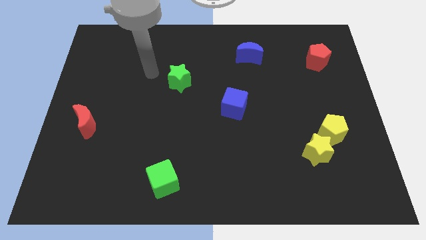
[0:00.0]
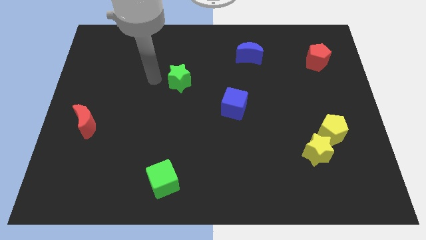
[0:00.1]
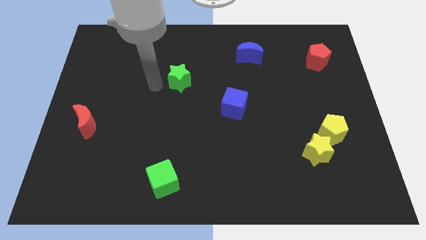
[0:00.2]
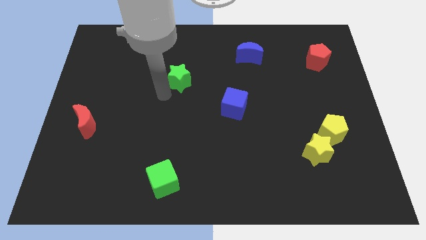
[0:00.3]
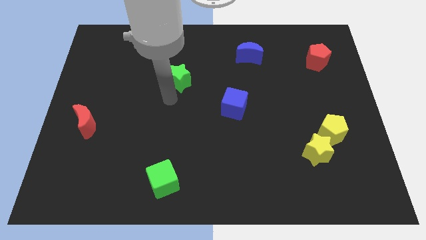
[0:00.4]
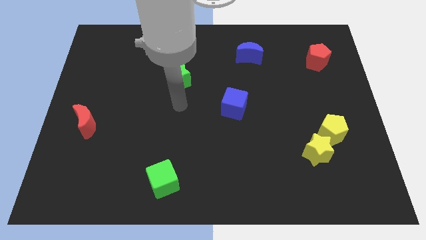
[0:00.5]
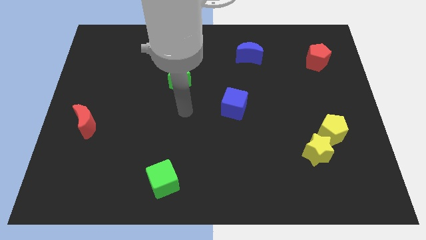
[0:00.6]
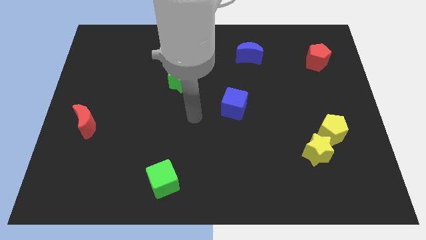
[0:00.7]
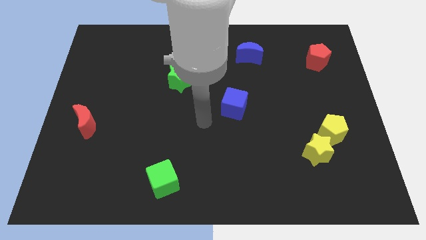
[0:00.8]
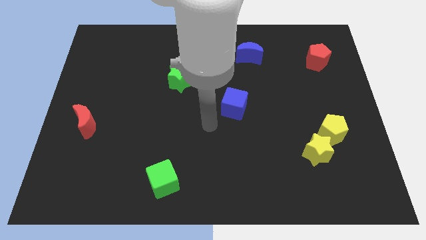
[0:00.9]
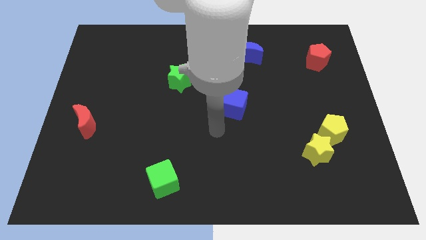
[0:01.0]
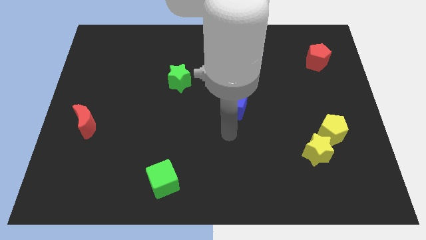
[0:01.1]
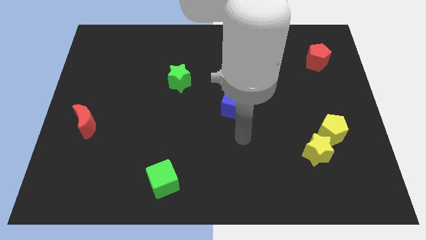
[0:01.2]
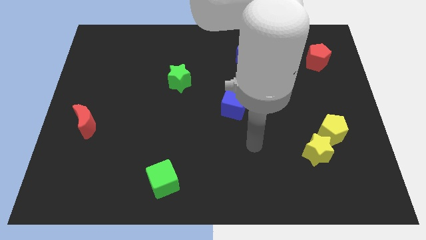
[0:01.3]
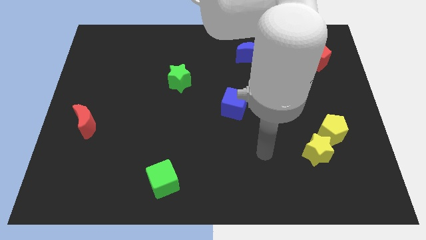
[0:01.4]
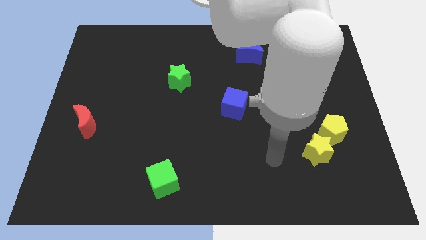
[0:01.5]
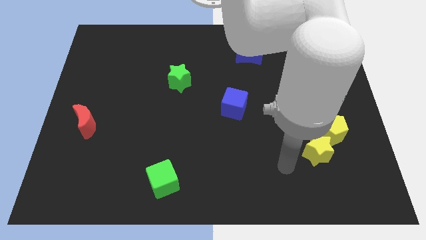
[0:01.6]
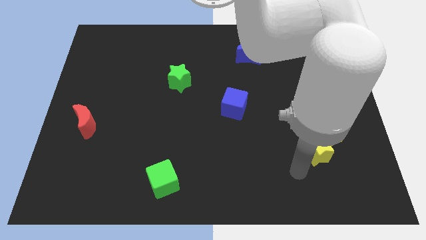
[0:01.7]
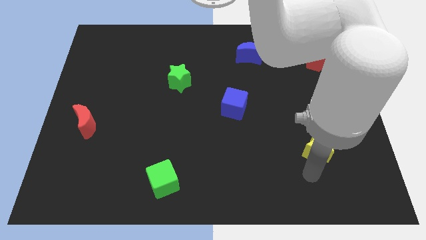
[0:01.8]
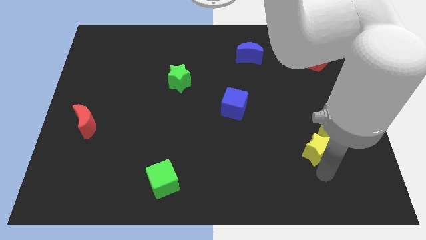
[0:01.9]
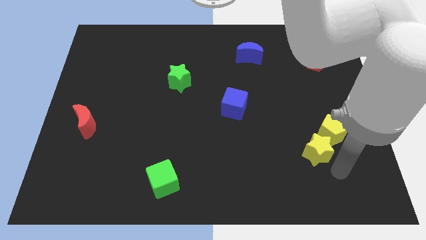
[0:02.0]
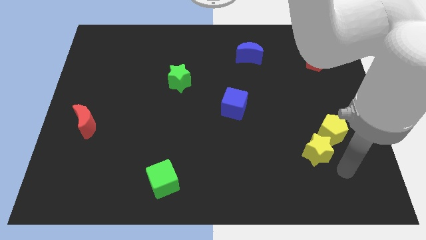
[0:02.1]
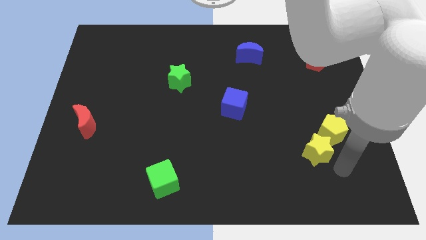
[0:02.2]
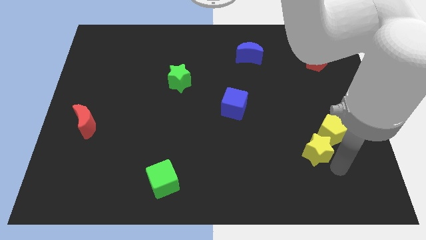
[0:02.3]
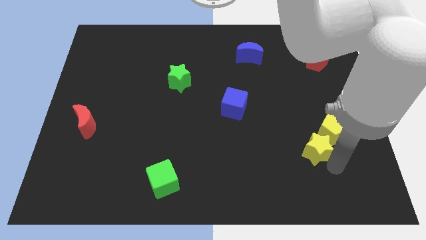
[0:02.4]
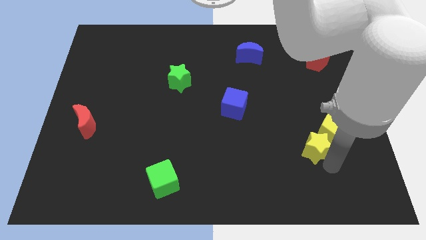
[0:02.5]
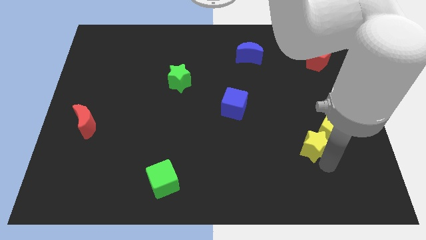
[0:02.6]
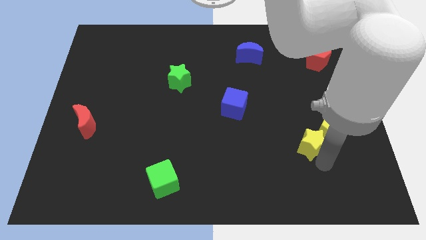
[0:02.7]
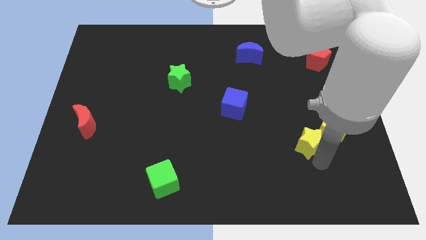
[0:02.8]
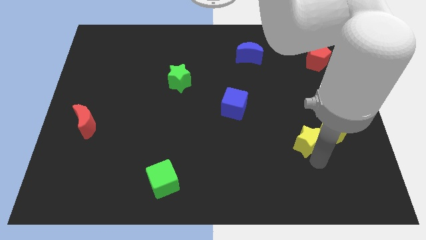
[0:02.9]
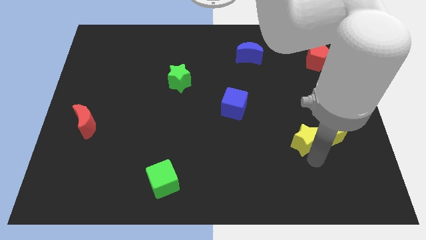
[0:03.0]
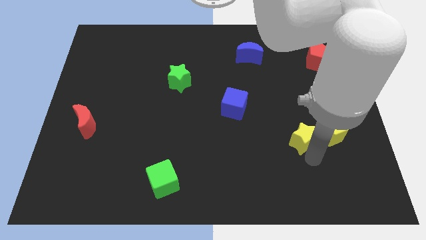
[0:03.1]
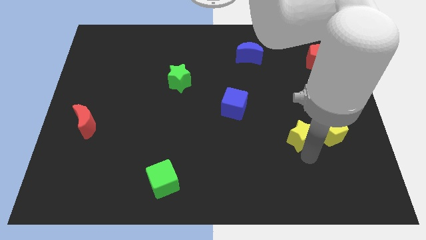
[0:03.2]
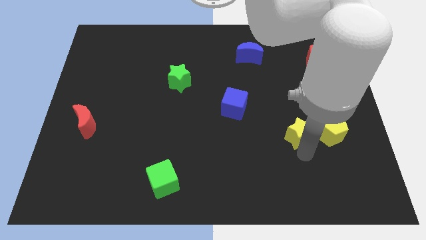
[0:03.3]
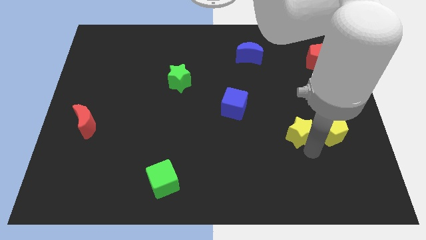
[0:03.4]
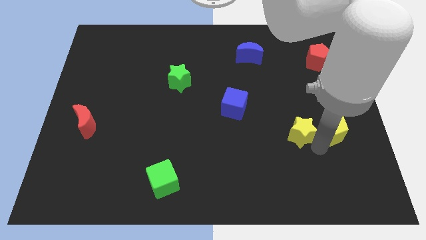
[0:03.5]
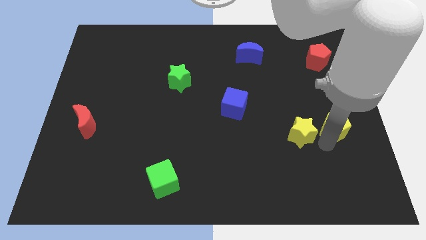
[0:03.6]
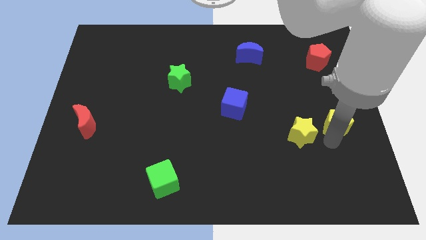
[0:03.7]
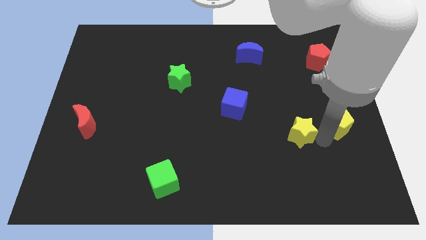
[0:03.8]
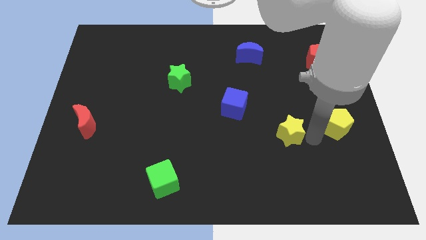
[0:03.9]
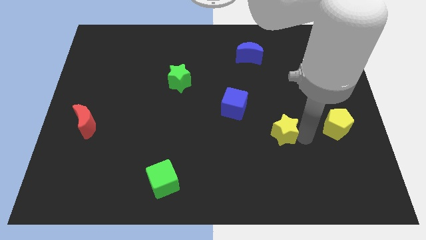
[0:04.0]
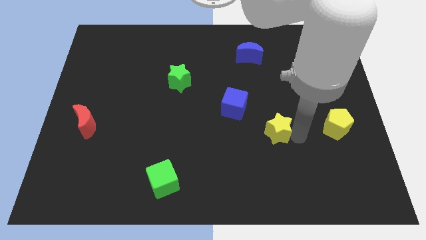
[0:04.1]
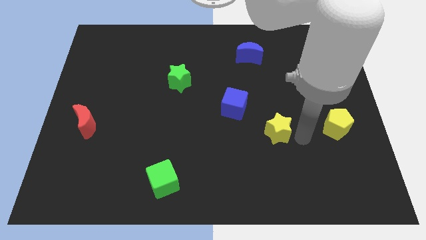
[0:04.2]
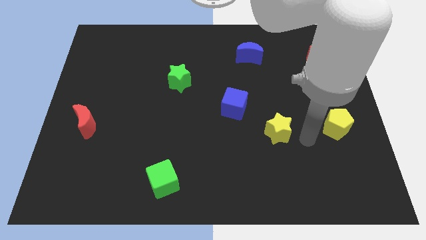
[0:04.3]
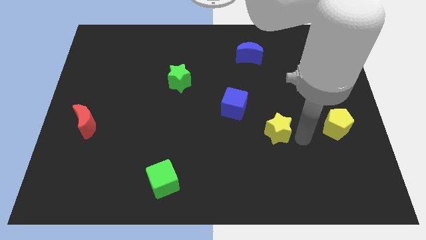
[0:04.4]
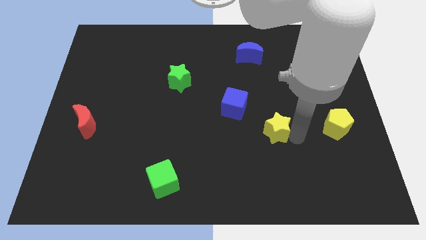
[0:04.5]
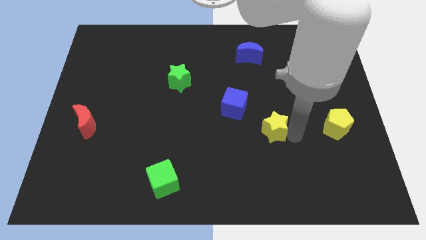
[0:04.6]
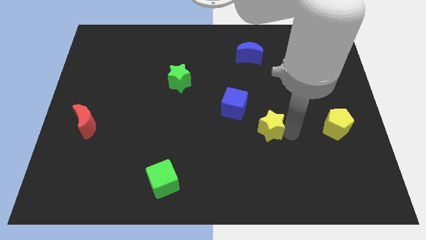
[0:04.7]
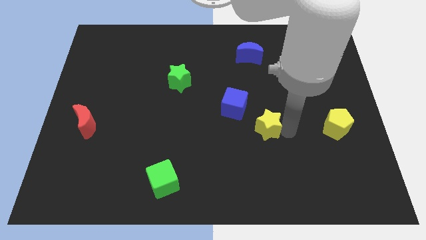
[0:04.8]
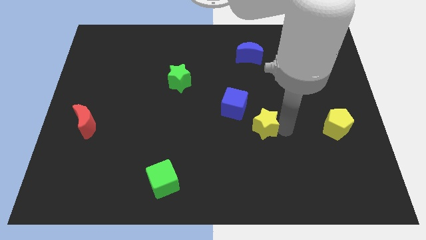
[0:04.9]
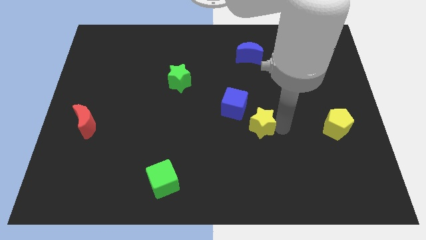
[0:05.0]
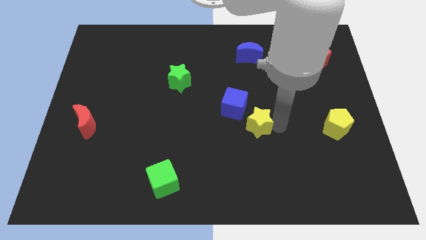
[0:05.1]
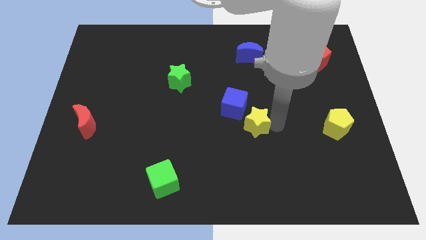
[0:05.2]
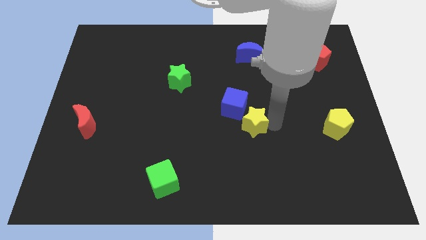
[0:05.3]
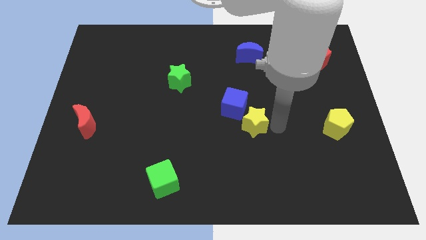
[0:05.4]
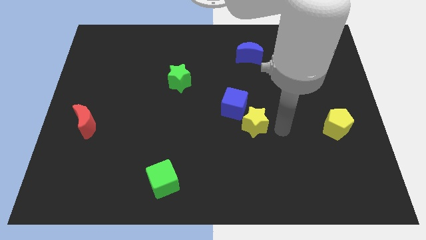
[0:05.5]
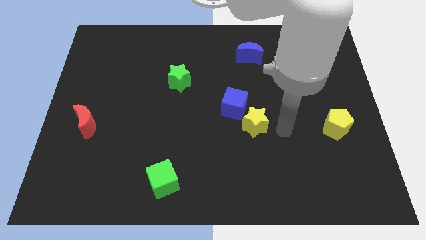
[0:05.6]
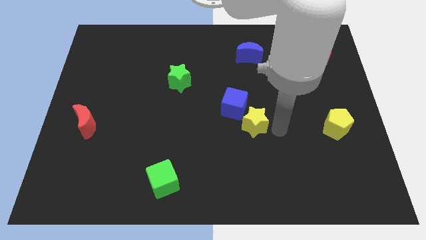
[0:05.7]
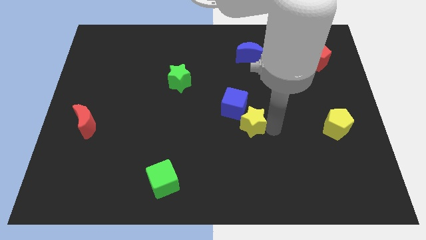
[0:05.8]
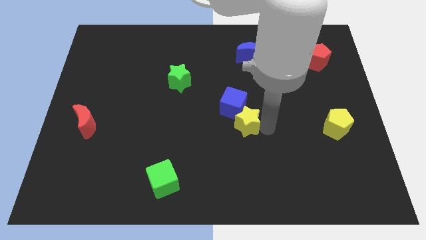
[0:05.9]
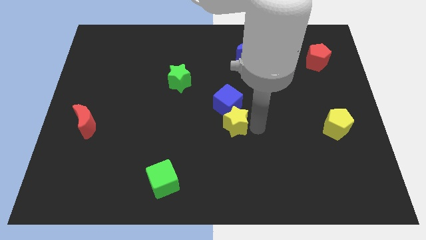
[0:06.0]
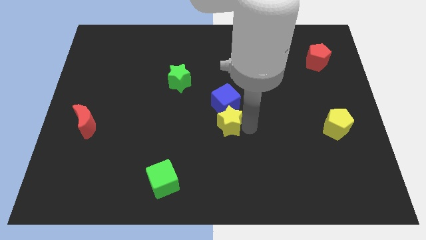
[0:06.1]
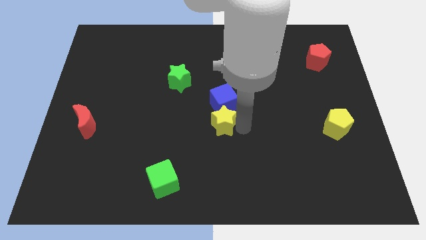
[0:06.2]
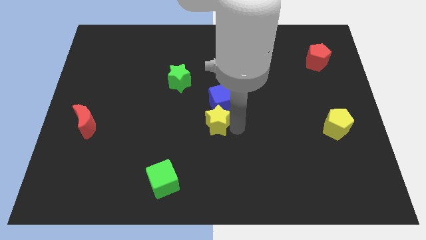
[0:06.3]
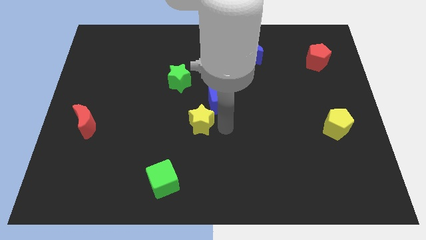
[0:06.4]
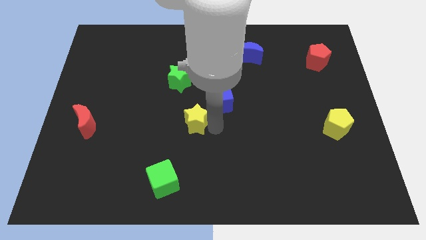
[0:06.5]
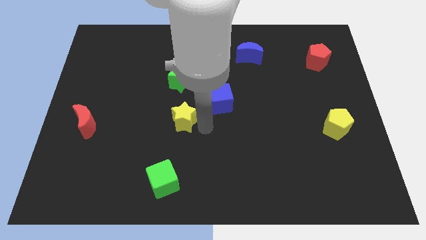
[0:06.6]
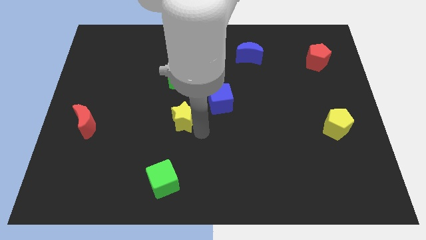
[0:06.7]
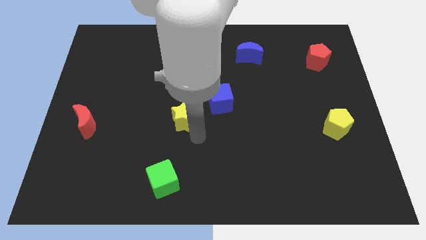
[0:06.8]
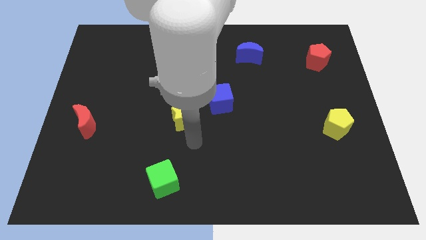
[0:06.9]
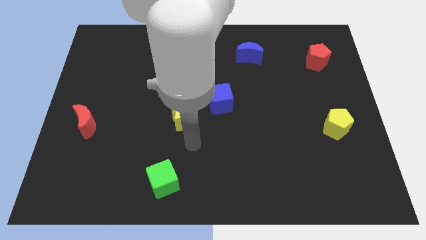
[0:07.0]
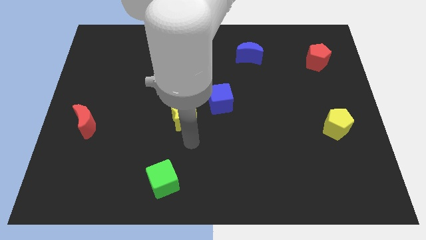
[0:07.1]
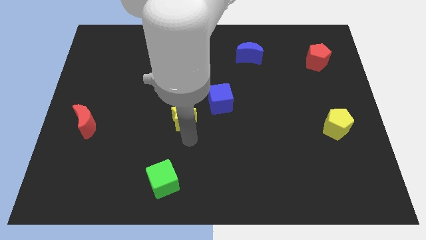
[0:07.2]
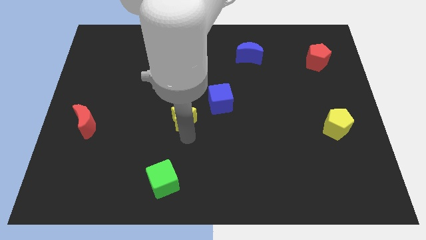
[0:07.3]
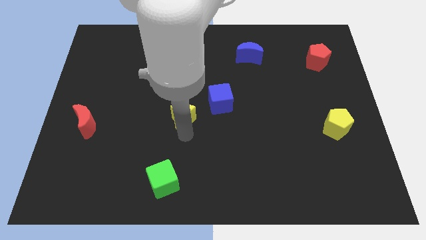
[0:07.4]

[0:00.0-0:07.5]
put the yellow star to the left side of the blue cube
